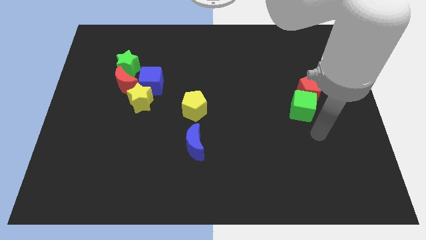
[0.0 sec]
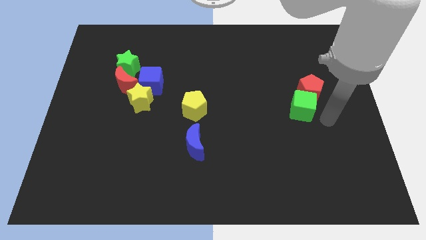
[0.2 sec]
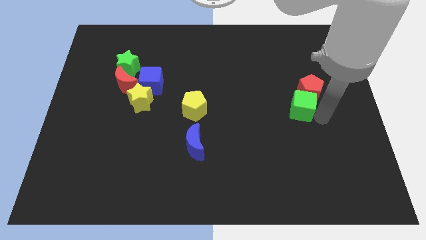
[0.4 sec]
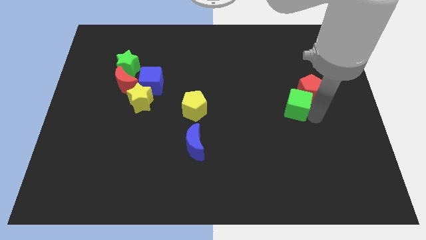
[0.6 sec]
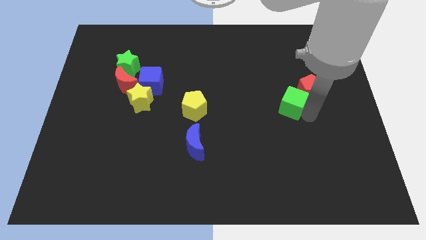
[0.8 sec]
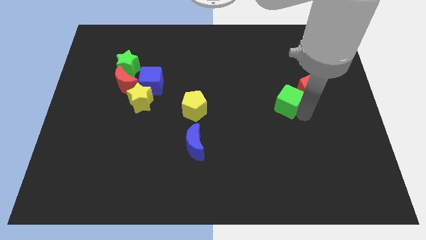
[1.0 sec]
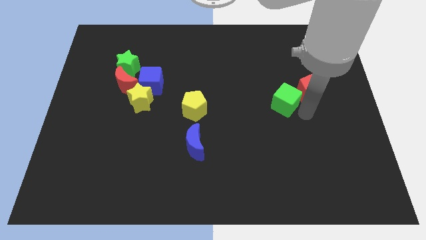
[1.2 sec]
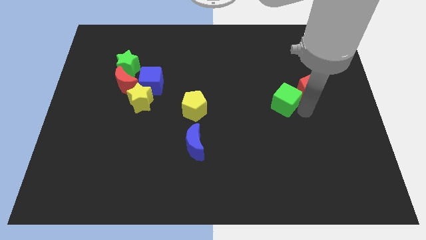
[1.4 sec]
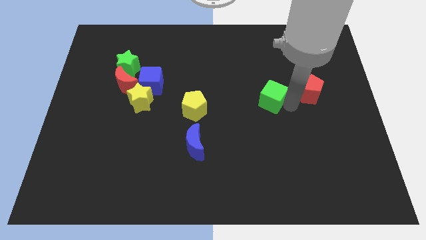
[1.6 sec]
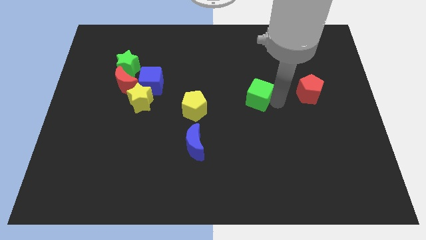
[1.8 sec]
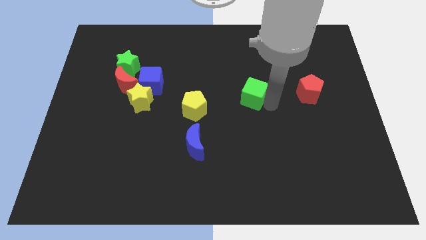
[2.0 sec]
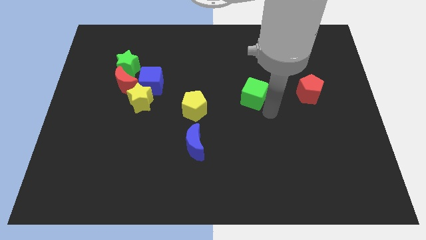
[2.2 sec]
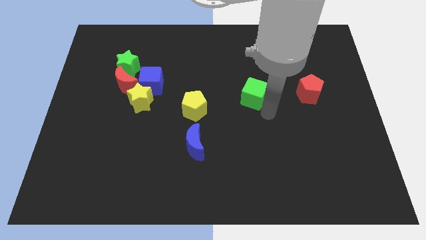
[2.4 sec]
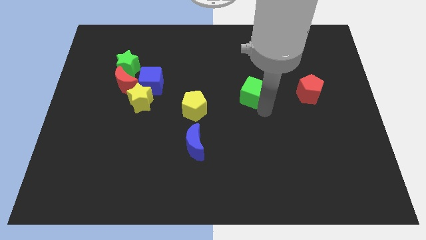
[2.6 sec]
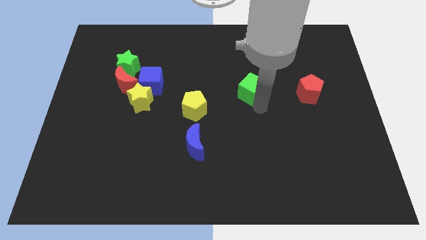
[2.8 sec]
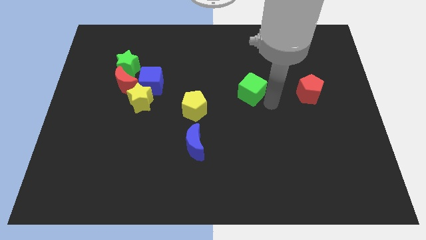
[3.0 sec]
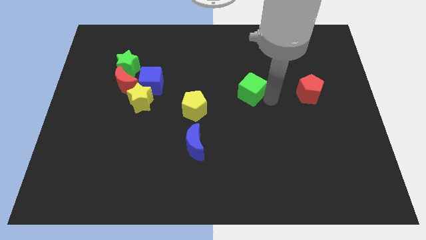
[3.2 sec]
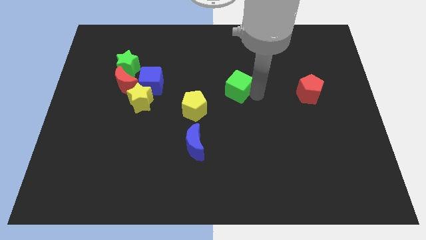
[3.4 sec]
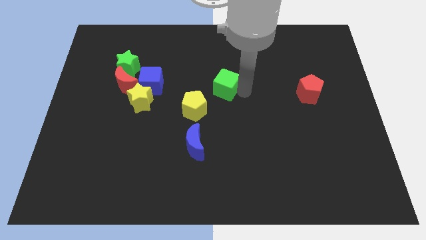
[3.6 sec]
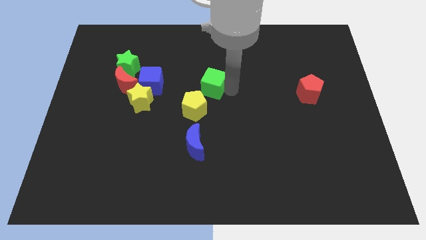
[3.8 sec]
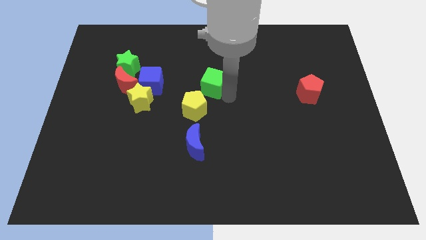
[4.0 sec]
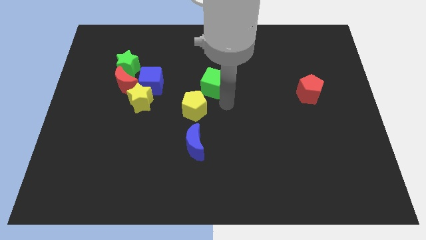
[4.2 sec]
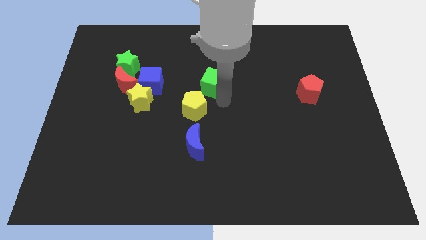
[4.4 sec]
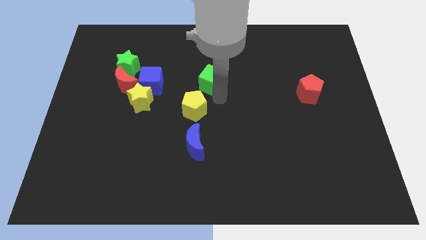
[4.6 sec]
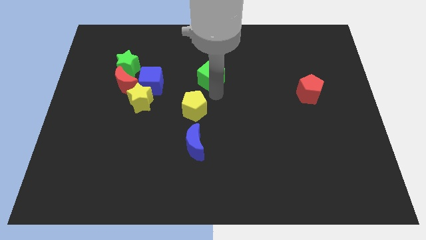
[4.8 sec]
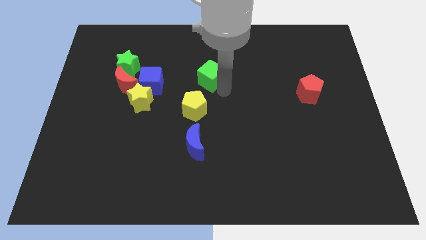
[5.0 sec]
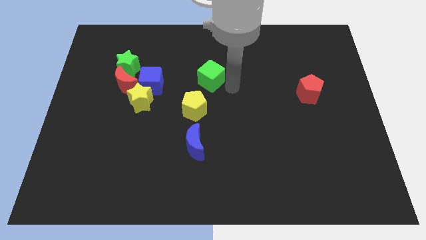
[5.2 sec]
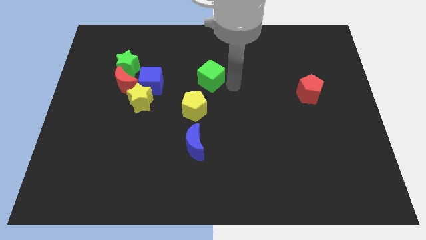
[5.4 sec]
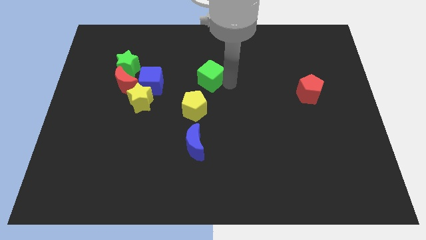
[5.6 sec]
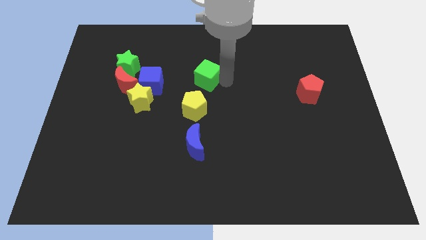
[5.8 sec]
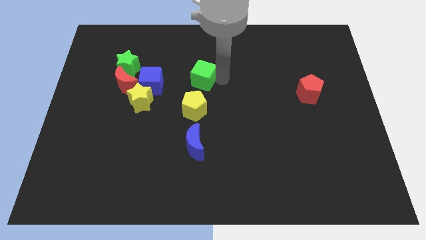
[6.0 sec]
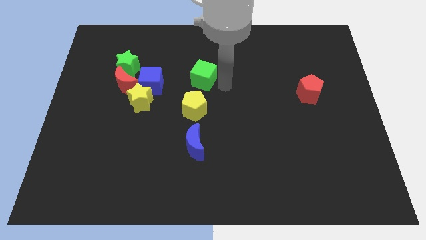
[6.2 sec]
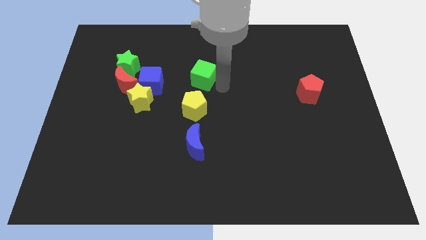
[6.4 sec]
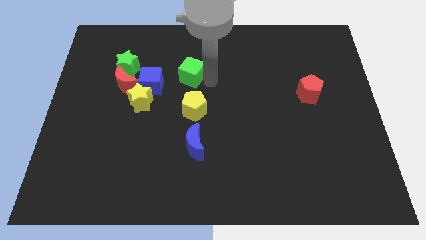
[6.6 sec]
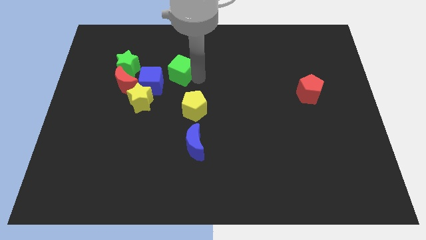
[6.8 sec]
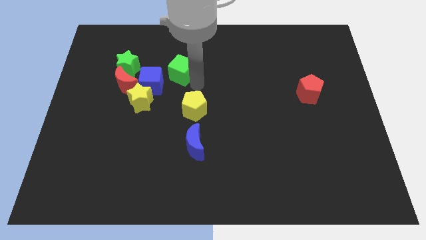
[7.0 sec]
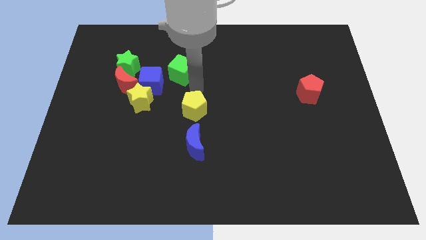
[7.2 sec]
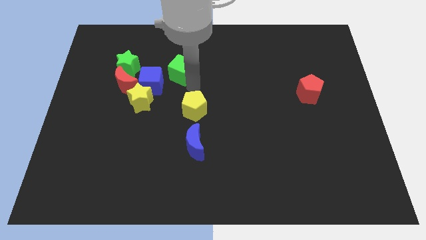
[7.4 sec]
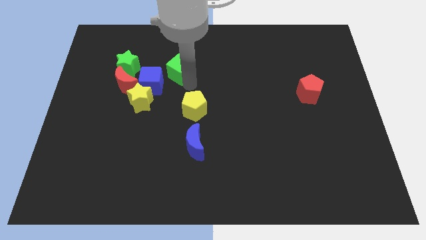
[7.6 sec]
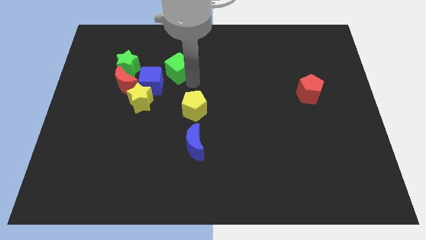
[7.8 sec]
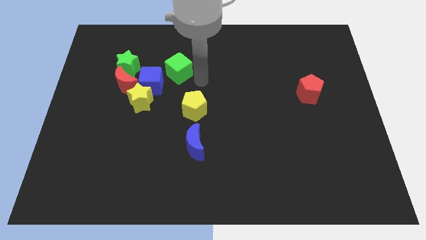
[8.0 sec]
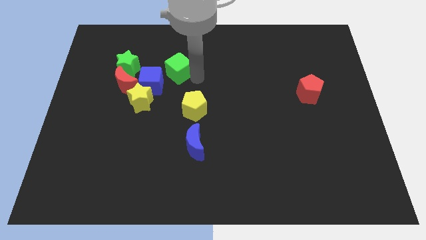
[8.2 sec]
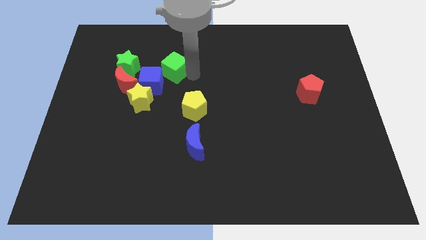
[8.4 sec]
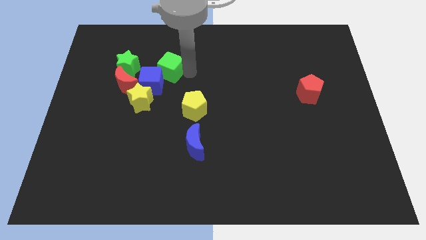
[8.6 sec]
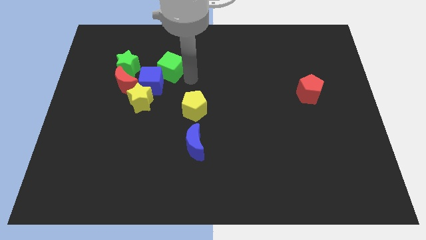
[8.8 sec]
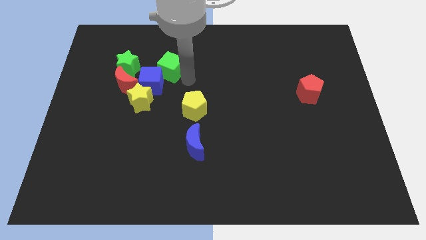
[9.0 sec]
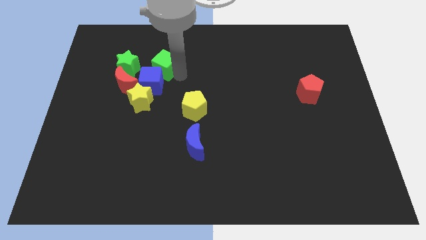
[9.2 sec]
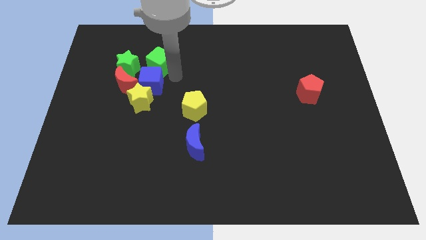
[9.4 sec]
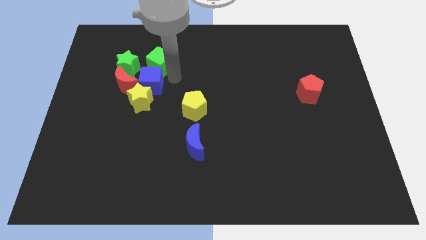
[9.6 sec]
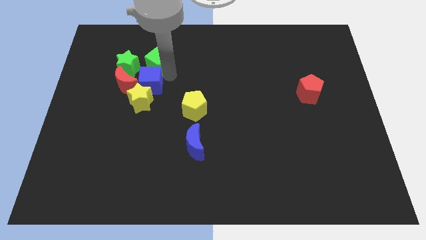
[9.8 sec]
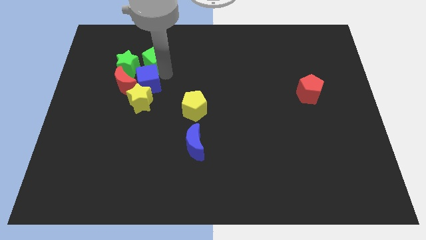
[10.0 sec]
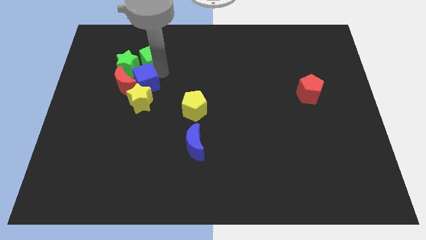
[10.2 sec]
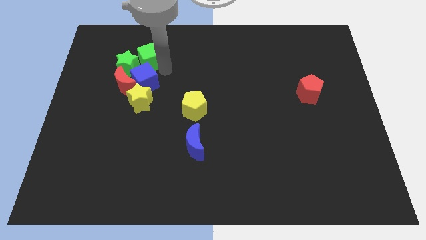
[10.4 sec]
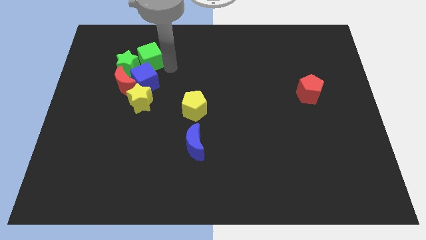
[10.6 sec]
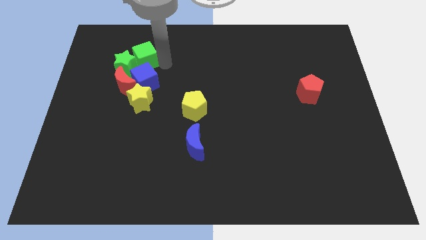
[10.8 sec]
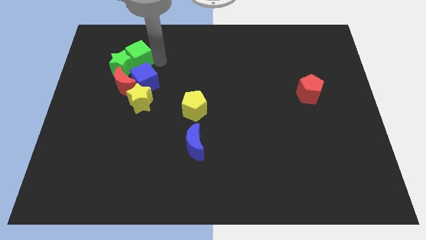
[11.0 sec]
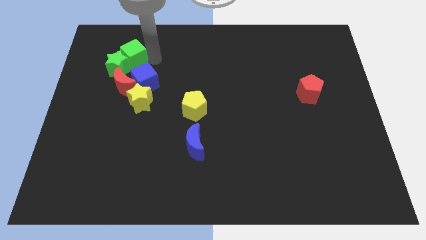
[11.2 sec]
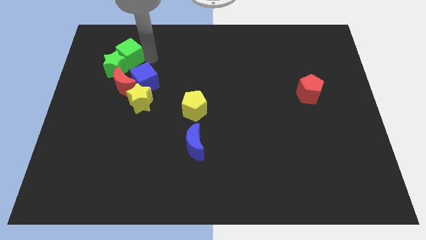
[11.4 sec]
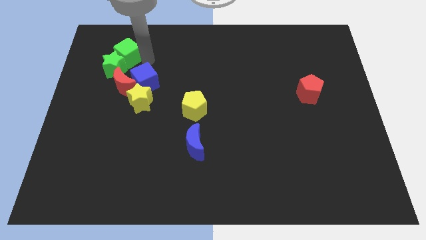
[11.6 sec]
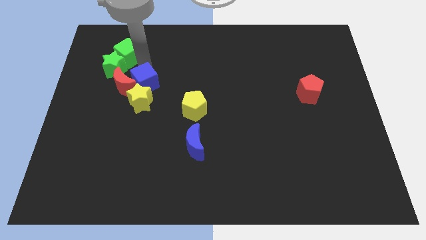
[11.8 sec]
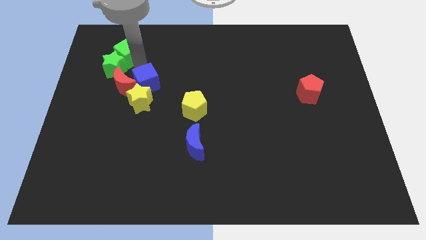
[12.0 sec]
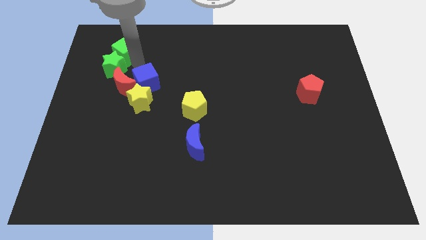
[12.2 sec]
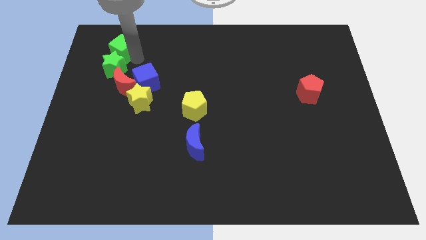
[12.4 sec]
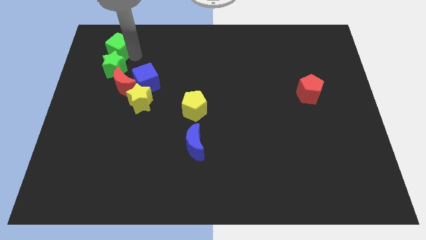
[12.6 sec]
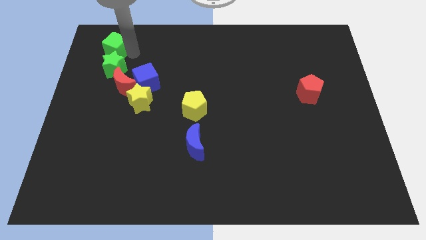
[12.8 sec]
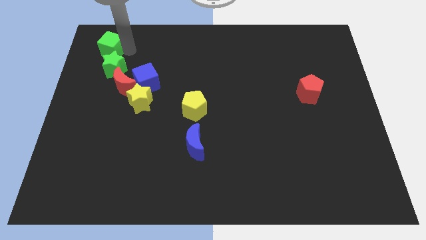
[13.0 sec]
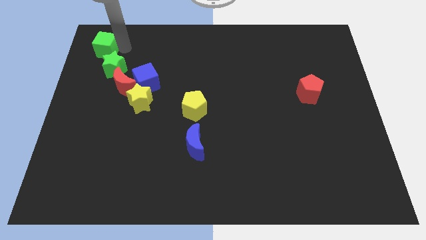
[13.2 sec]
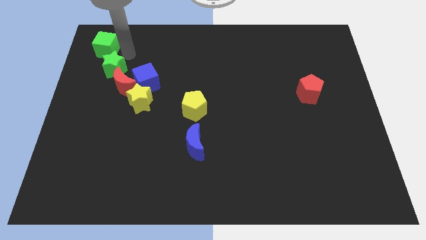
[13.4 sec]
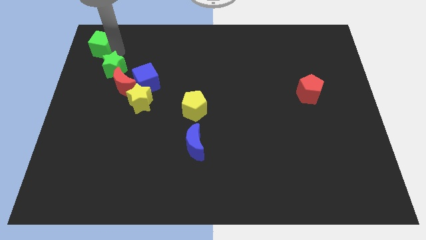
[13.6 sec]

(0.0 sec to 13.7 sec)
put the green cube to the upper left corner
